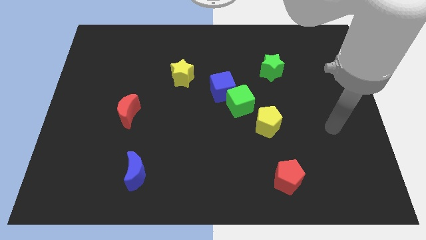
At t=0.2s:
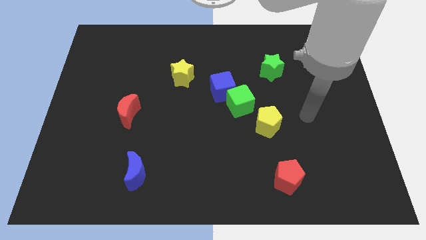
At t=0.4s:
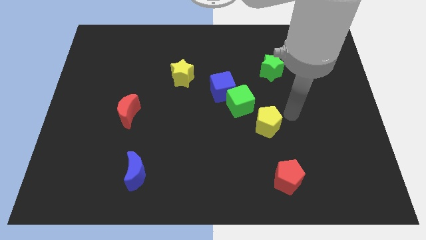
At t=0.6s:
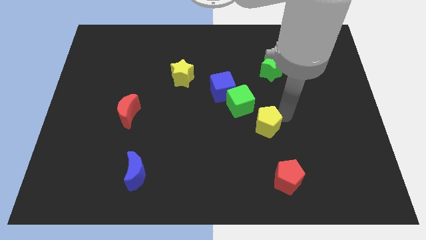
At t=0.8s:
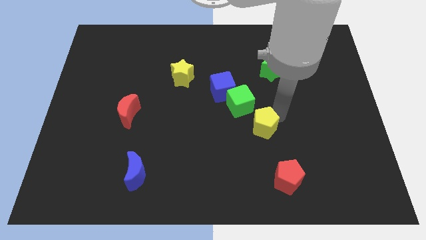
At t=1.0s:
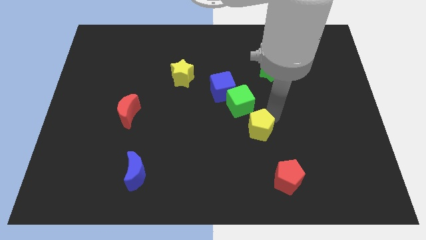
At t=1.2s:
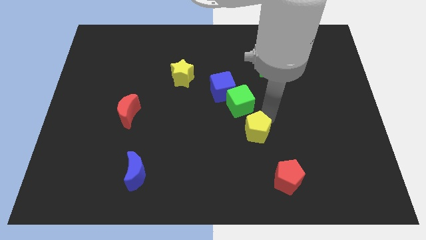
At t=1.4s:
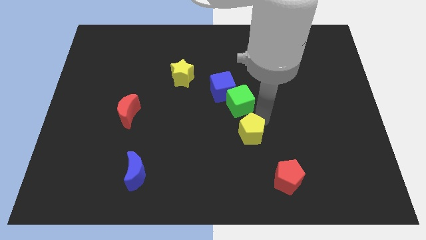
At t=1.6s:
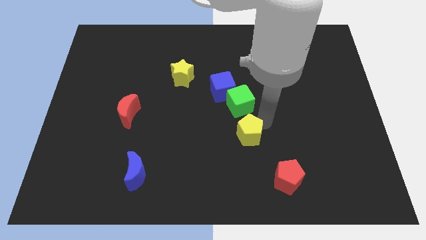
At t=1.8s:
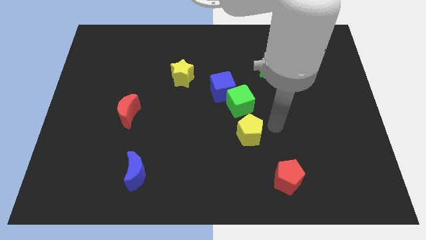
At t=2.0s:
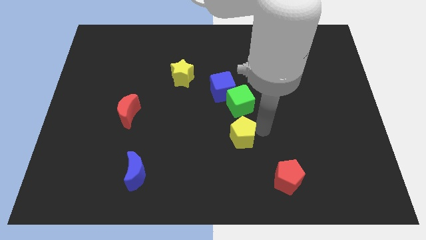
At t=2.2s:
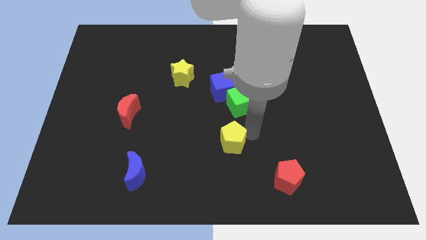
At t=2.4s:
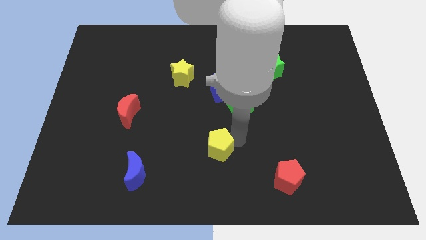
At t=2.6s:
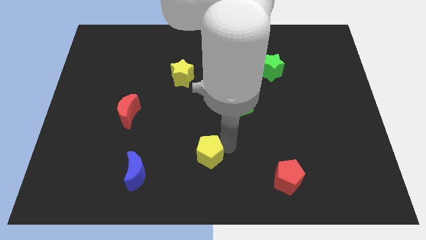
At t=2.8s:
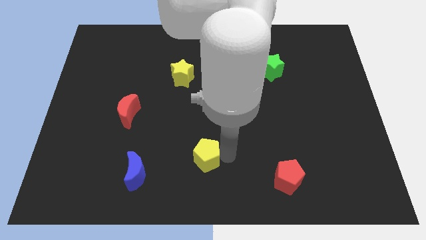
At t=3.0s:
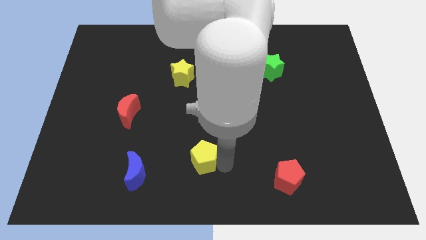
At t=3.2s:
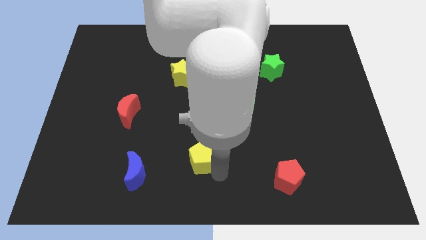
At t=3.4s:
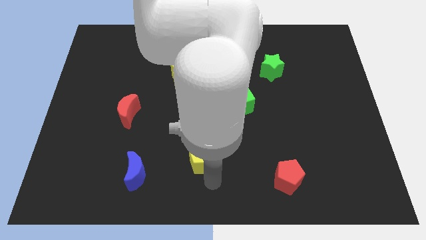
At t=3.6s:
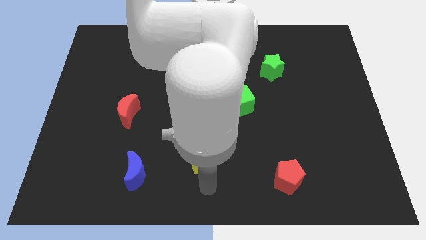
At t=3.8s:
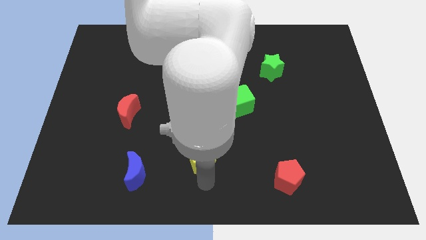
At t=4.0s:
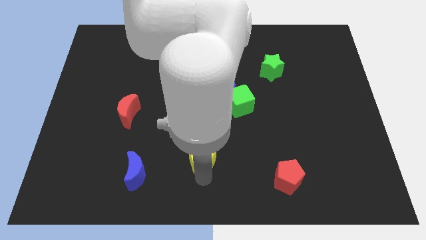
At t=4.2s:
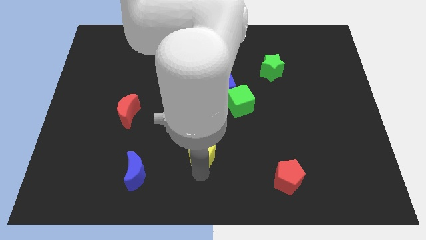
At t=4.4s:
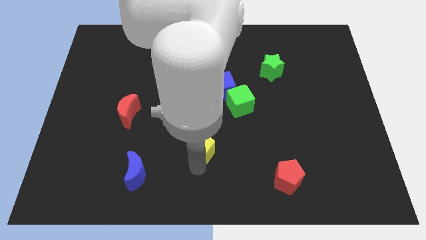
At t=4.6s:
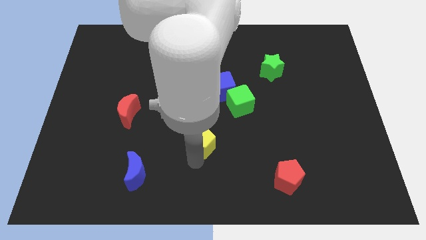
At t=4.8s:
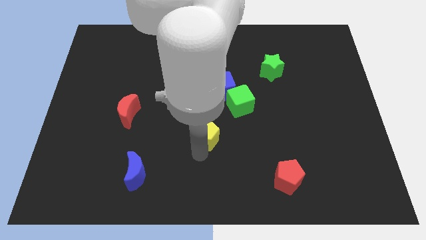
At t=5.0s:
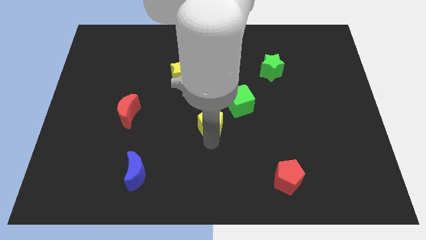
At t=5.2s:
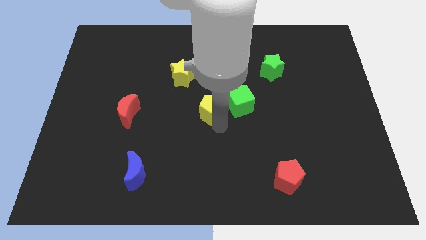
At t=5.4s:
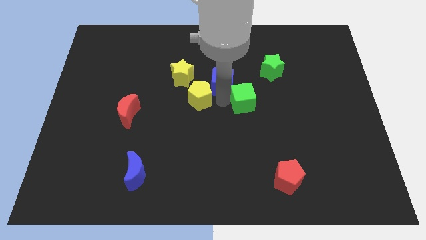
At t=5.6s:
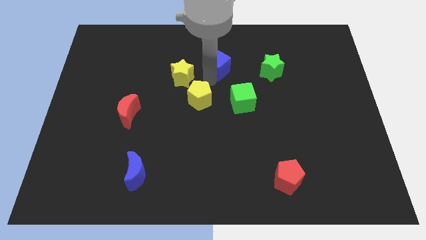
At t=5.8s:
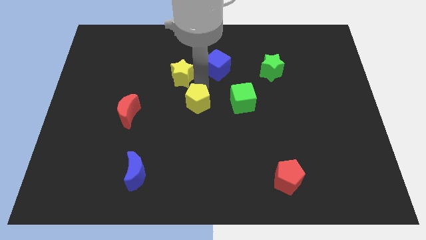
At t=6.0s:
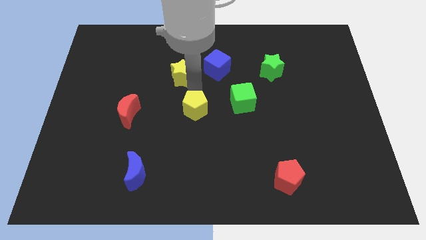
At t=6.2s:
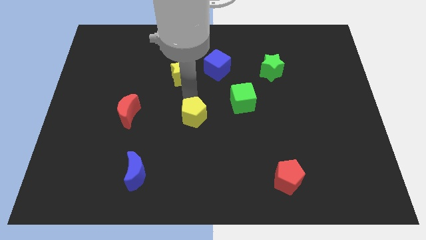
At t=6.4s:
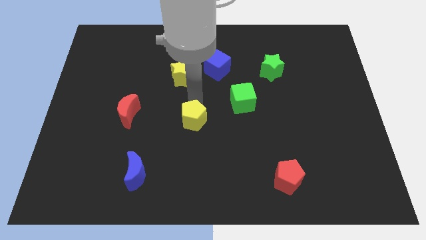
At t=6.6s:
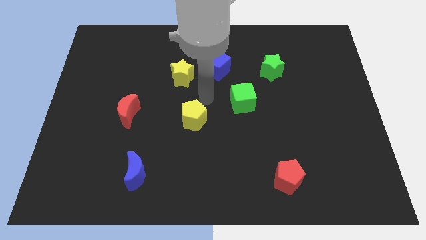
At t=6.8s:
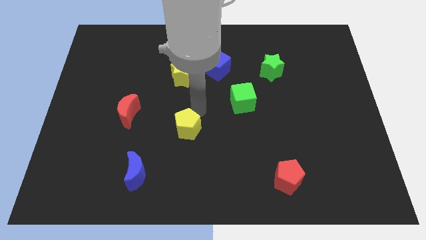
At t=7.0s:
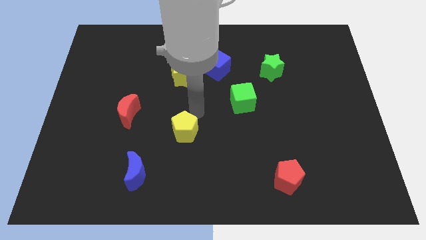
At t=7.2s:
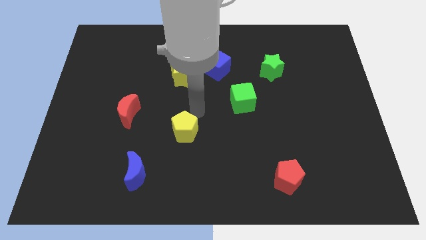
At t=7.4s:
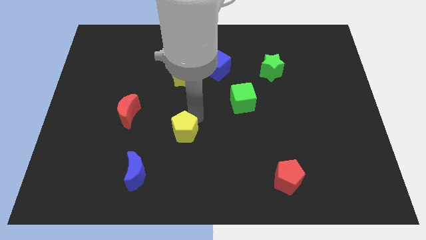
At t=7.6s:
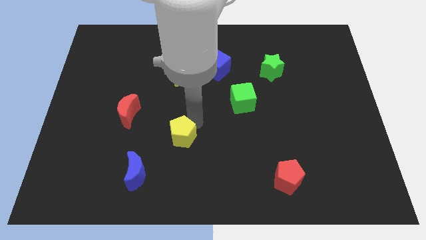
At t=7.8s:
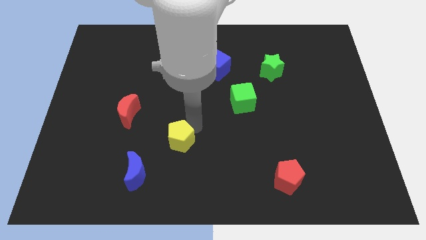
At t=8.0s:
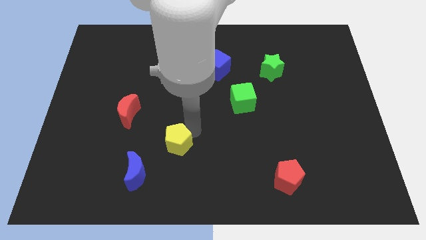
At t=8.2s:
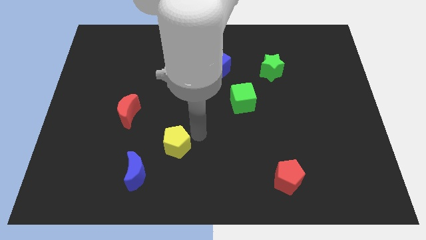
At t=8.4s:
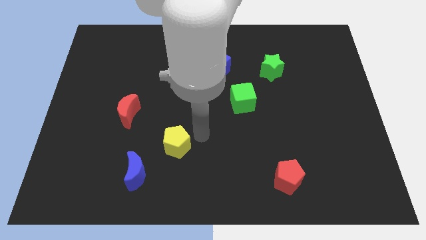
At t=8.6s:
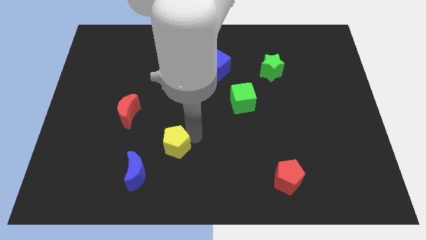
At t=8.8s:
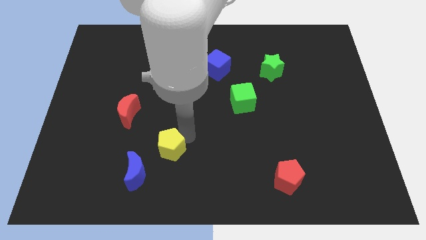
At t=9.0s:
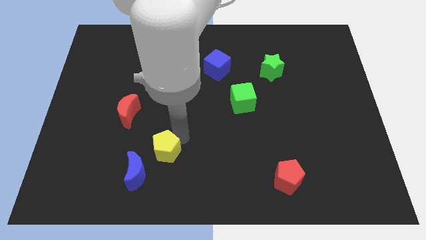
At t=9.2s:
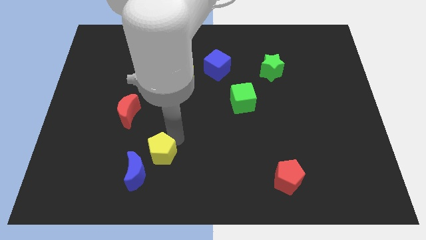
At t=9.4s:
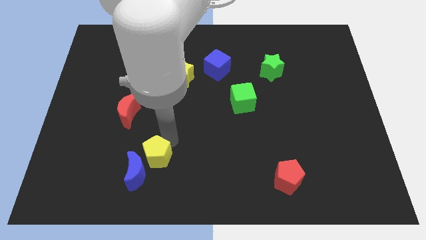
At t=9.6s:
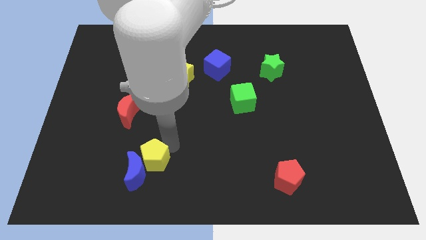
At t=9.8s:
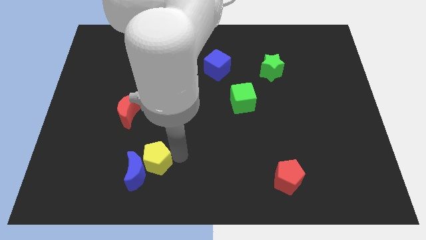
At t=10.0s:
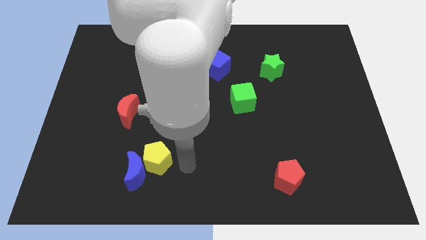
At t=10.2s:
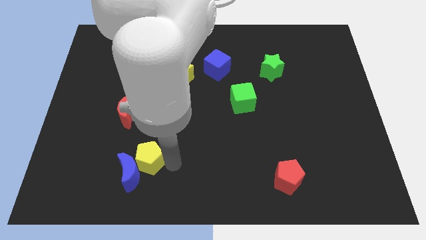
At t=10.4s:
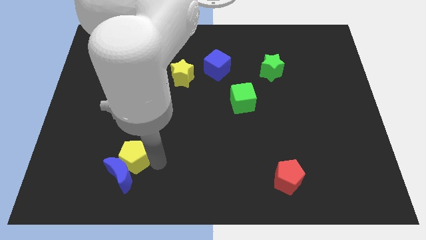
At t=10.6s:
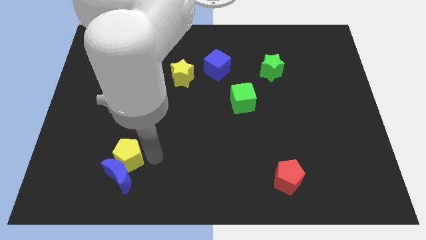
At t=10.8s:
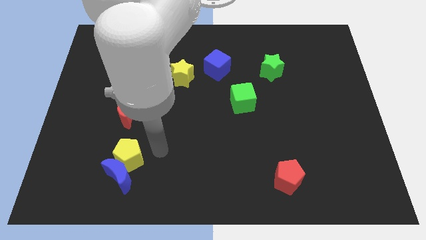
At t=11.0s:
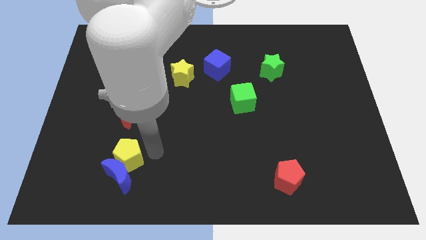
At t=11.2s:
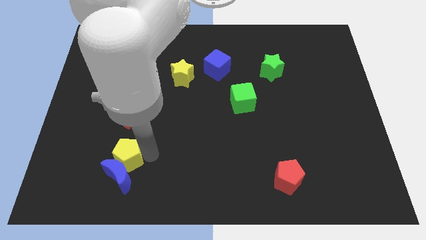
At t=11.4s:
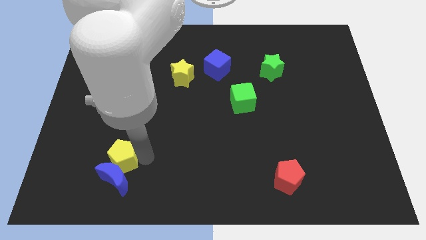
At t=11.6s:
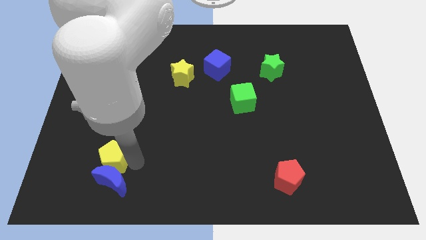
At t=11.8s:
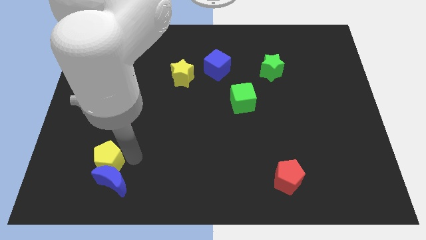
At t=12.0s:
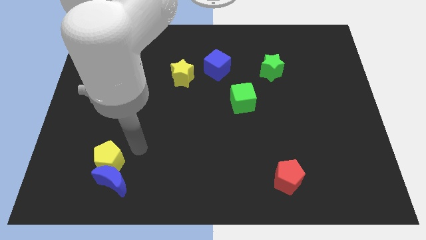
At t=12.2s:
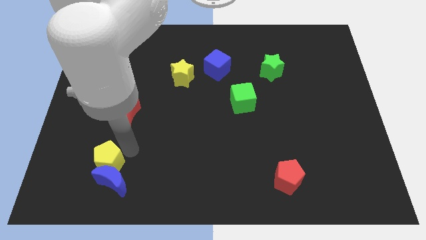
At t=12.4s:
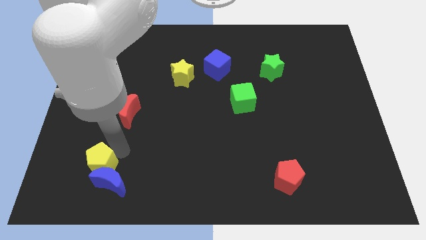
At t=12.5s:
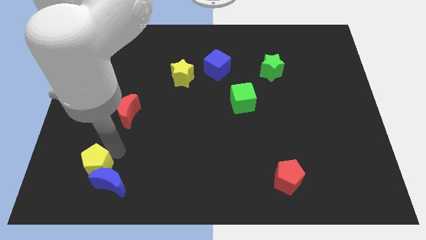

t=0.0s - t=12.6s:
push the yellow pentagon just left of the blue moon
